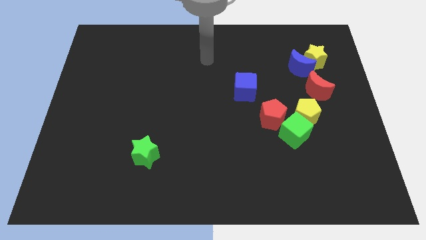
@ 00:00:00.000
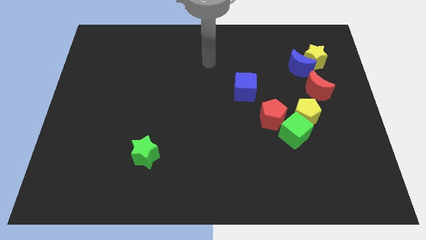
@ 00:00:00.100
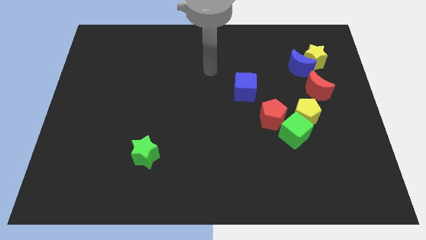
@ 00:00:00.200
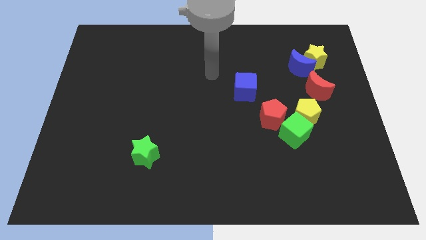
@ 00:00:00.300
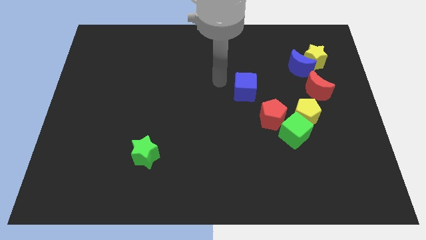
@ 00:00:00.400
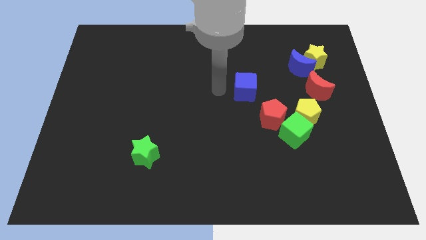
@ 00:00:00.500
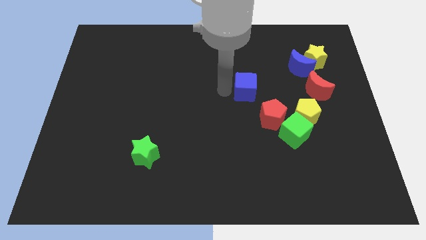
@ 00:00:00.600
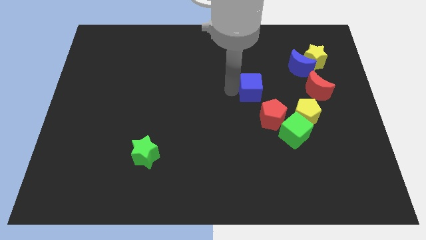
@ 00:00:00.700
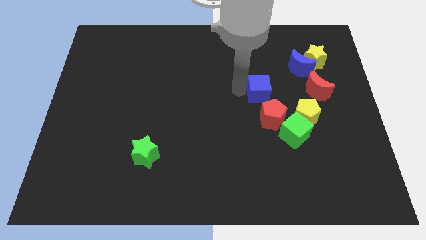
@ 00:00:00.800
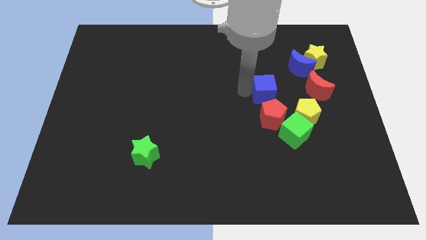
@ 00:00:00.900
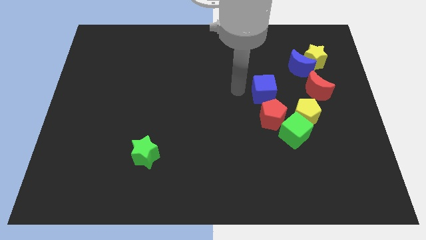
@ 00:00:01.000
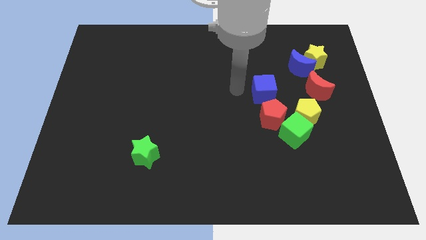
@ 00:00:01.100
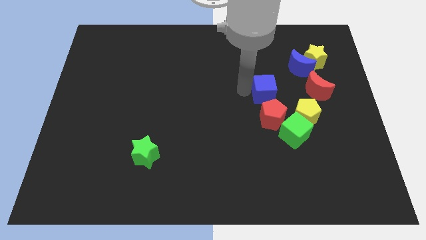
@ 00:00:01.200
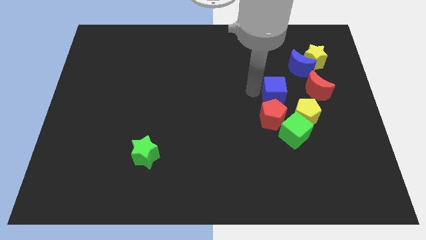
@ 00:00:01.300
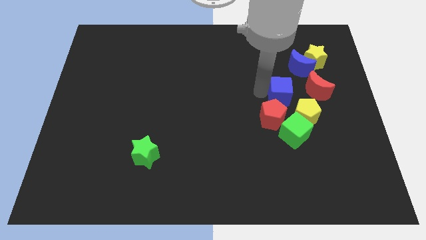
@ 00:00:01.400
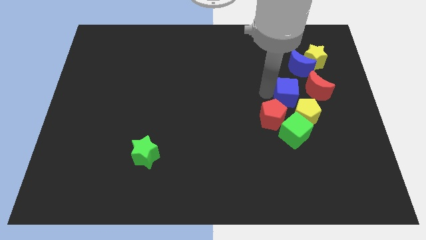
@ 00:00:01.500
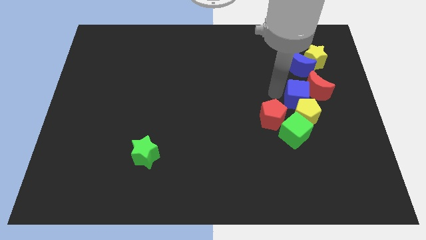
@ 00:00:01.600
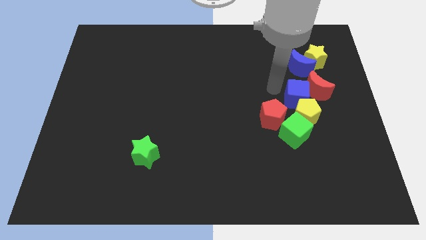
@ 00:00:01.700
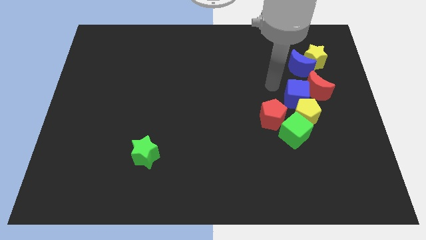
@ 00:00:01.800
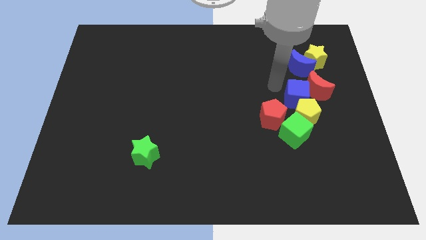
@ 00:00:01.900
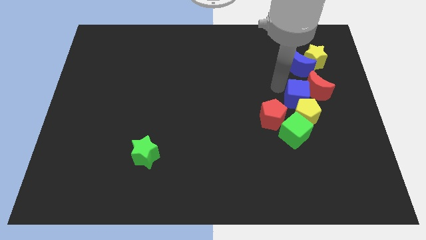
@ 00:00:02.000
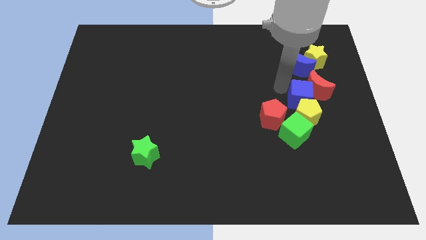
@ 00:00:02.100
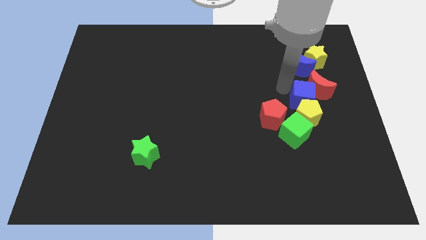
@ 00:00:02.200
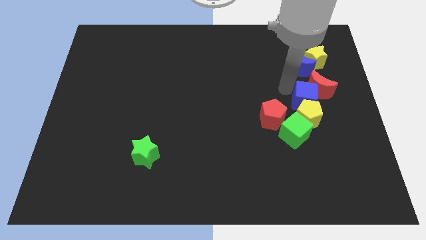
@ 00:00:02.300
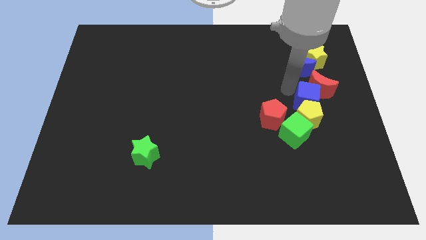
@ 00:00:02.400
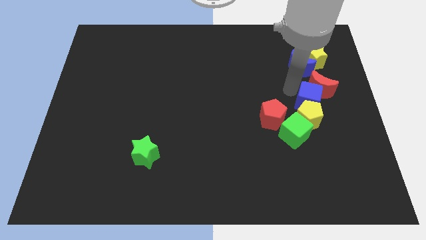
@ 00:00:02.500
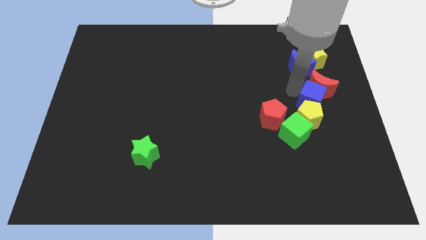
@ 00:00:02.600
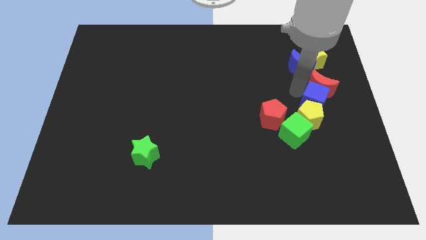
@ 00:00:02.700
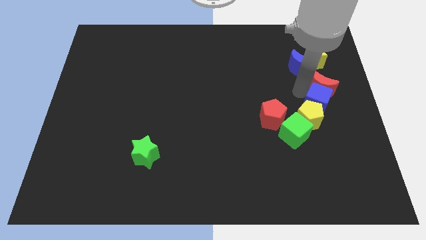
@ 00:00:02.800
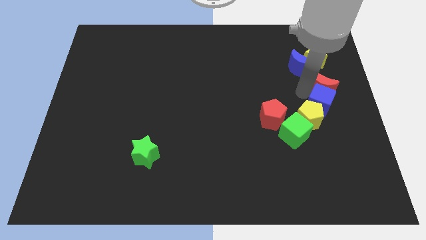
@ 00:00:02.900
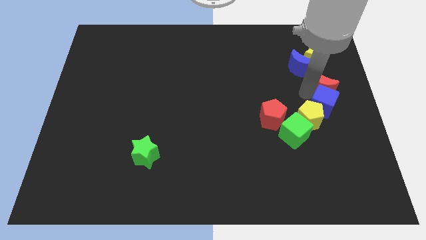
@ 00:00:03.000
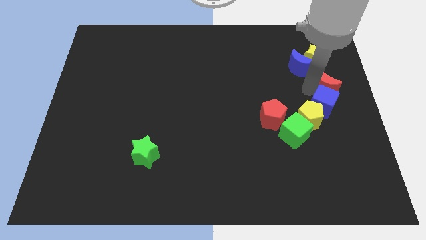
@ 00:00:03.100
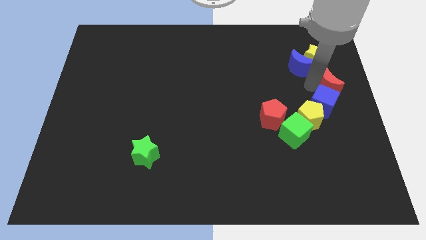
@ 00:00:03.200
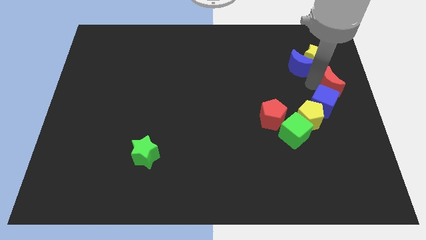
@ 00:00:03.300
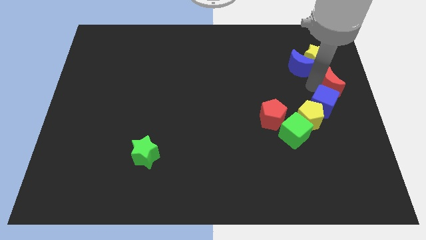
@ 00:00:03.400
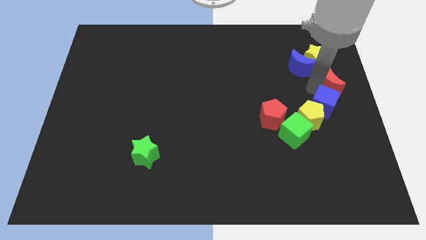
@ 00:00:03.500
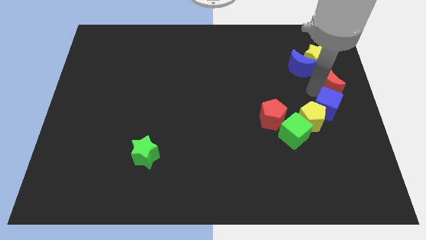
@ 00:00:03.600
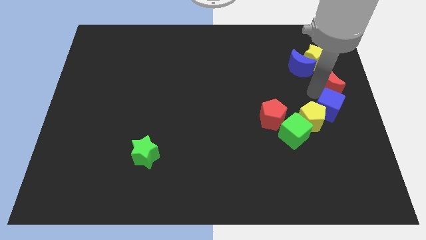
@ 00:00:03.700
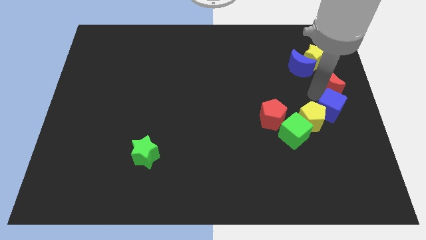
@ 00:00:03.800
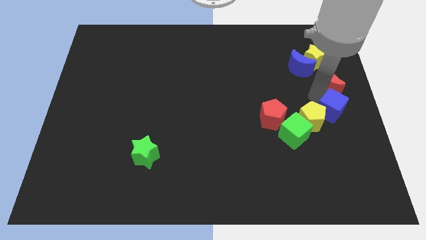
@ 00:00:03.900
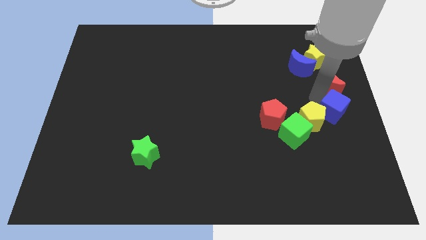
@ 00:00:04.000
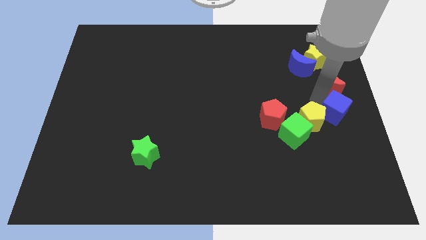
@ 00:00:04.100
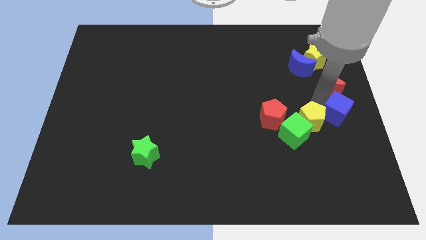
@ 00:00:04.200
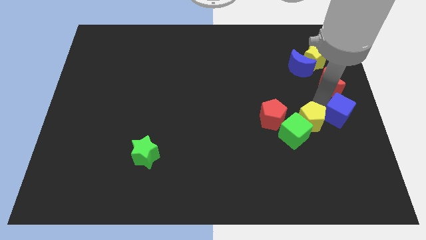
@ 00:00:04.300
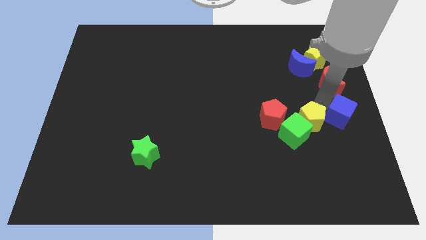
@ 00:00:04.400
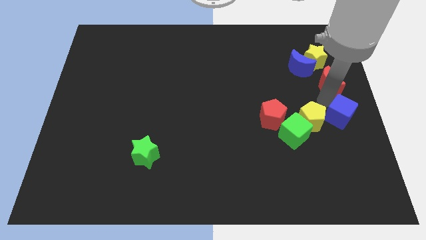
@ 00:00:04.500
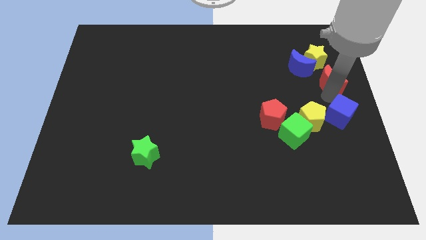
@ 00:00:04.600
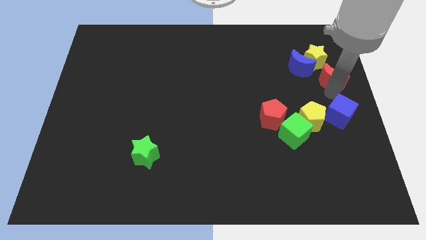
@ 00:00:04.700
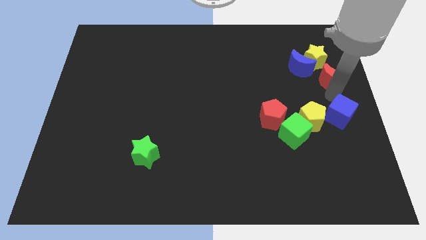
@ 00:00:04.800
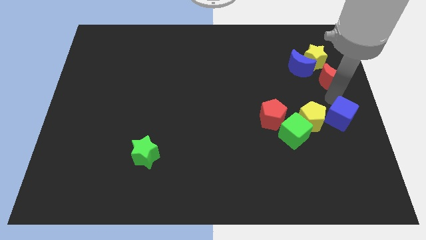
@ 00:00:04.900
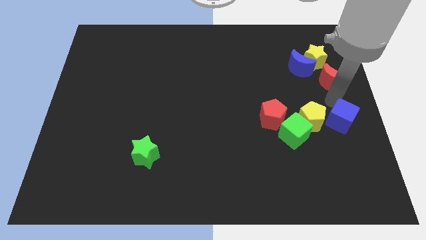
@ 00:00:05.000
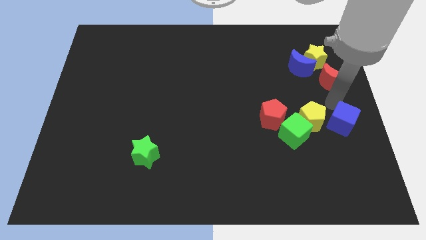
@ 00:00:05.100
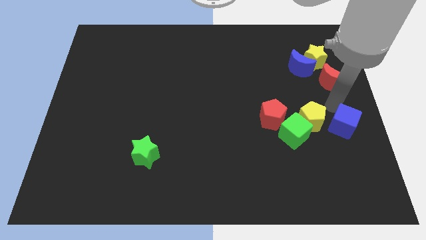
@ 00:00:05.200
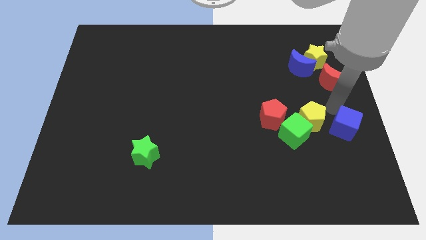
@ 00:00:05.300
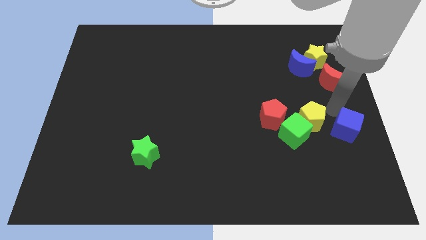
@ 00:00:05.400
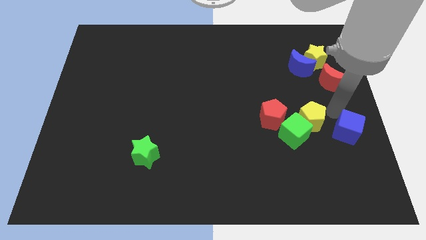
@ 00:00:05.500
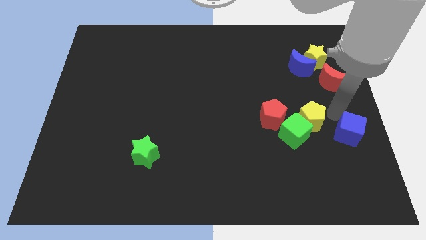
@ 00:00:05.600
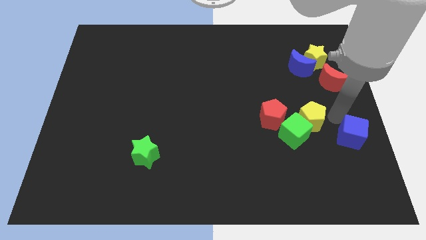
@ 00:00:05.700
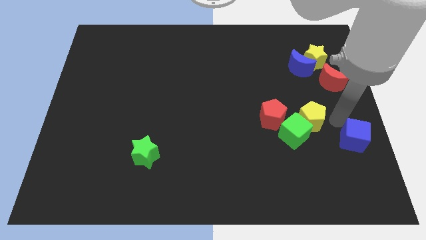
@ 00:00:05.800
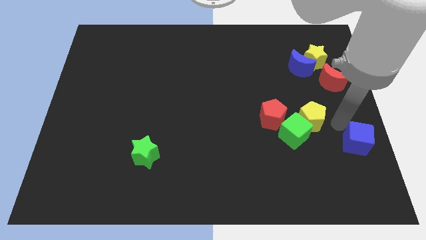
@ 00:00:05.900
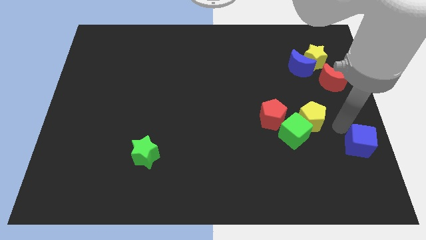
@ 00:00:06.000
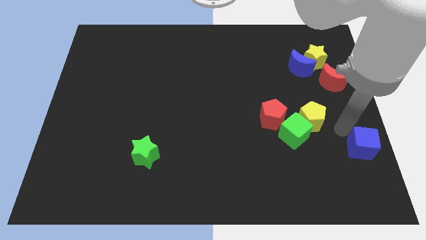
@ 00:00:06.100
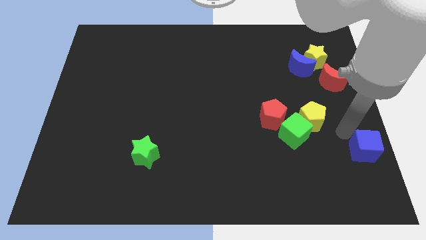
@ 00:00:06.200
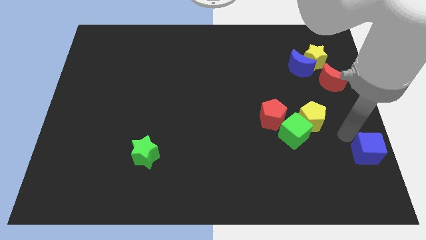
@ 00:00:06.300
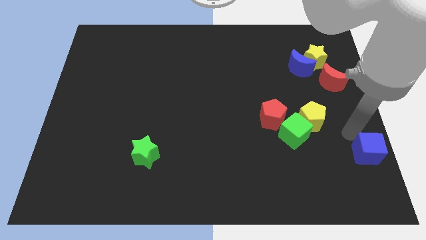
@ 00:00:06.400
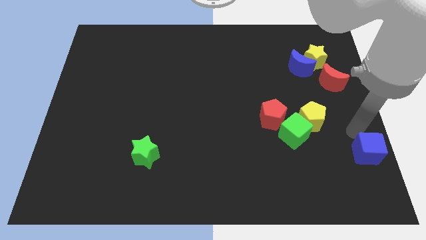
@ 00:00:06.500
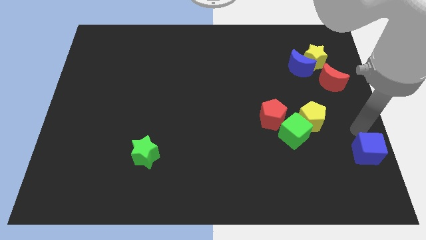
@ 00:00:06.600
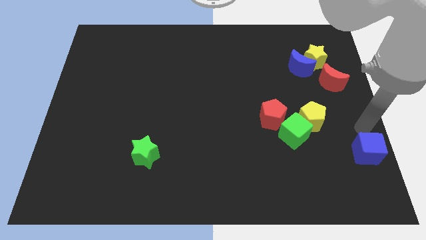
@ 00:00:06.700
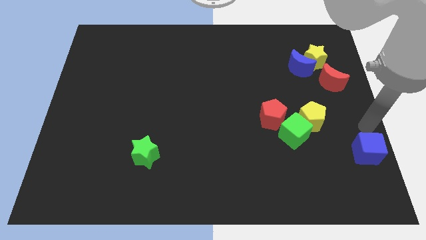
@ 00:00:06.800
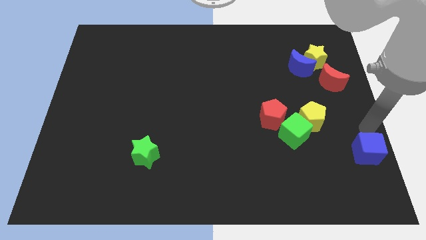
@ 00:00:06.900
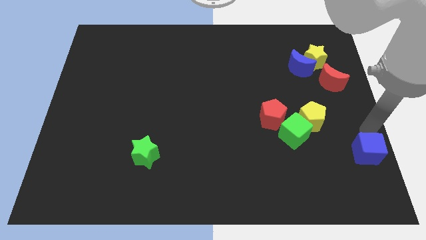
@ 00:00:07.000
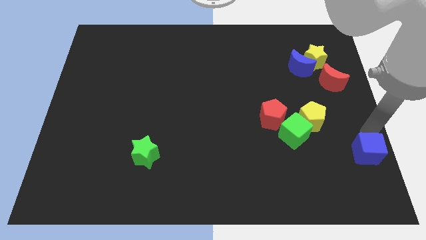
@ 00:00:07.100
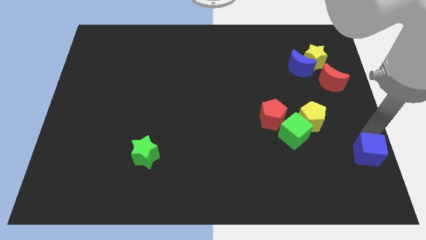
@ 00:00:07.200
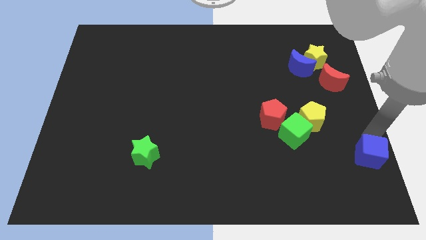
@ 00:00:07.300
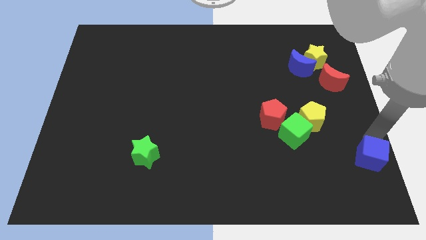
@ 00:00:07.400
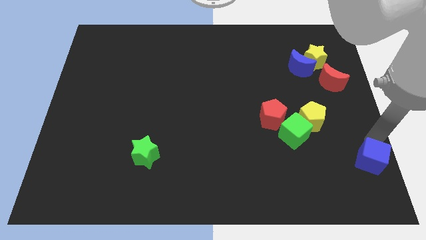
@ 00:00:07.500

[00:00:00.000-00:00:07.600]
move the blue cube to the bottom right of the board
